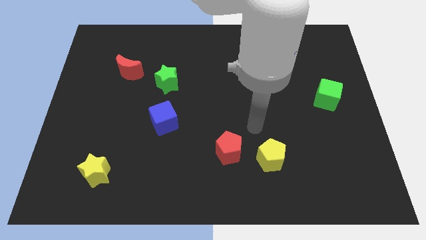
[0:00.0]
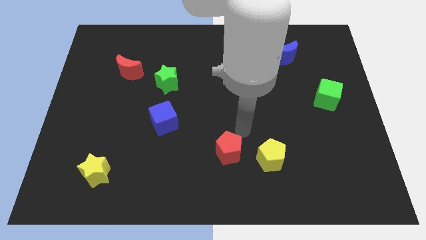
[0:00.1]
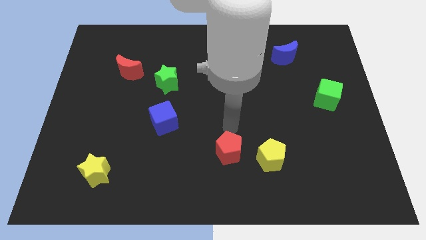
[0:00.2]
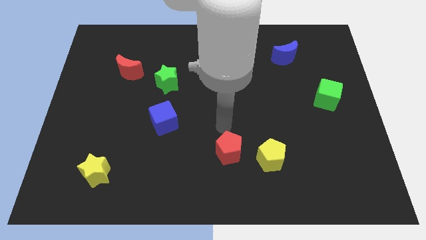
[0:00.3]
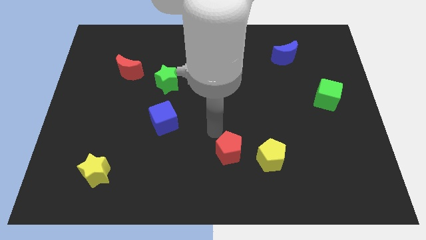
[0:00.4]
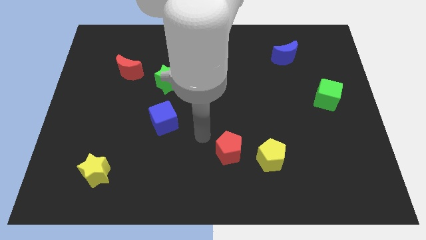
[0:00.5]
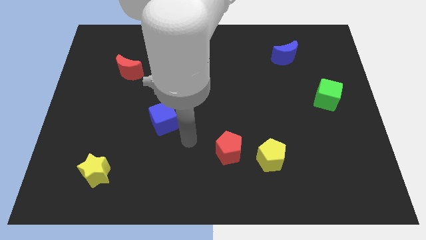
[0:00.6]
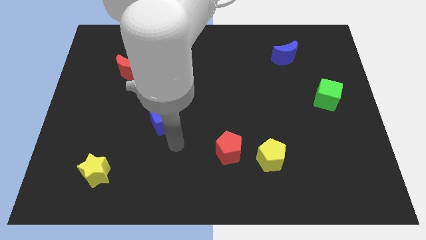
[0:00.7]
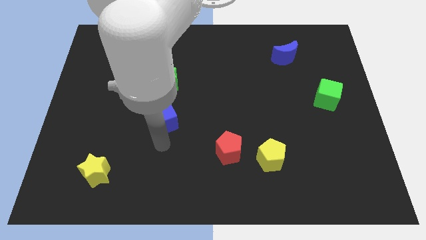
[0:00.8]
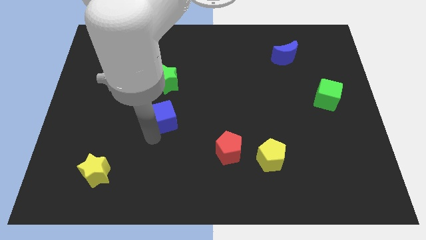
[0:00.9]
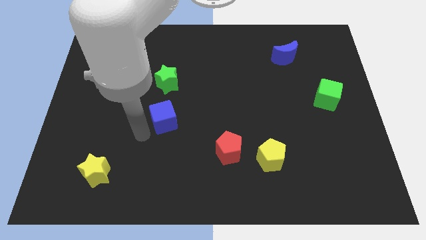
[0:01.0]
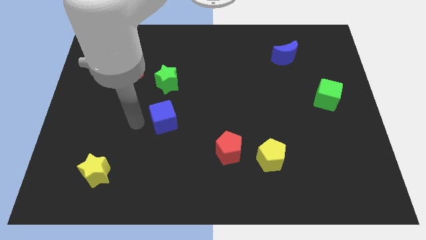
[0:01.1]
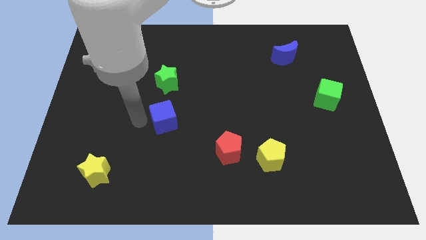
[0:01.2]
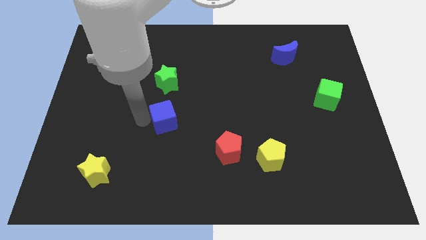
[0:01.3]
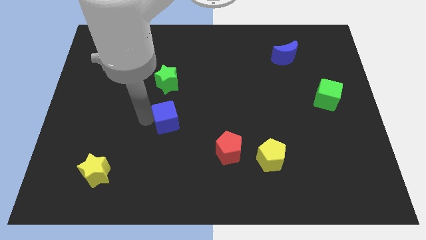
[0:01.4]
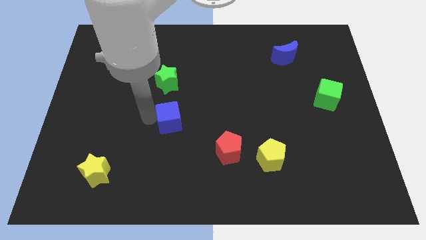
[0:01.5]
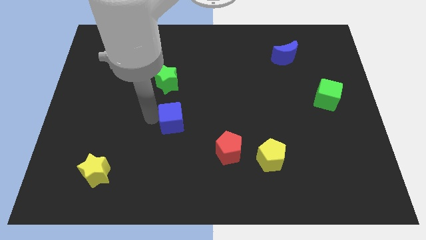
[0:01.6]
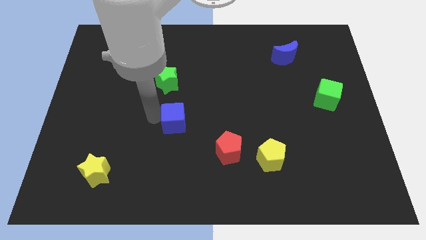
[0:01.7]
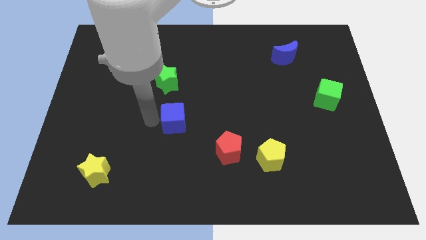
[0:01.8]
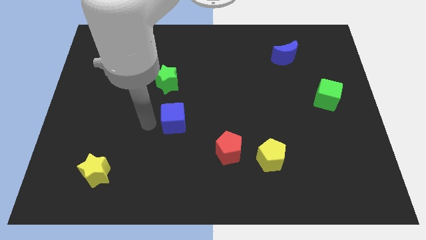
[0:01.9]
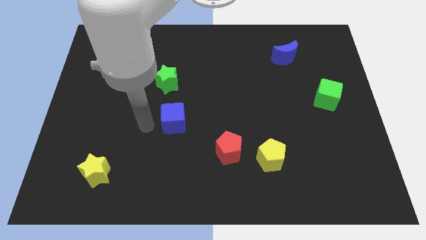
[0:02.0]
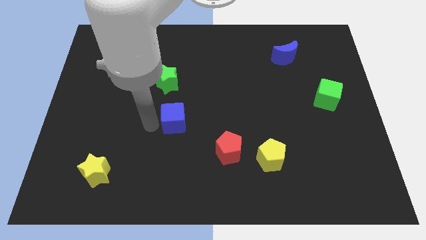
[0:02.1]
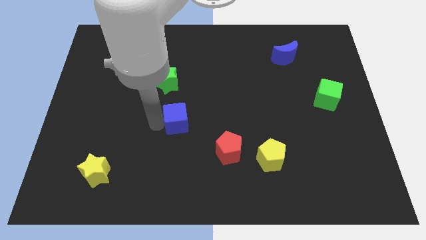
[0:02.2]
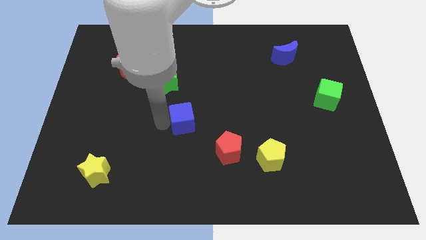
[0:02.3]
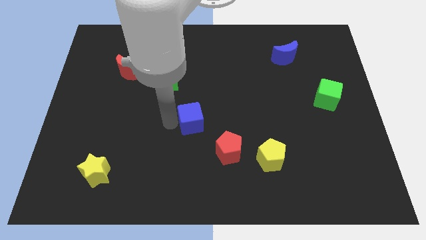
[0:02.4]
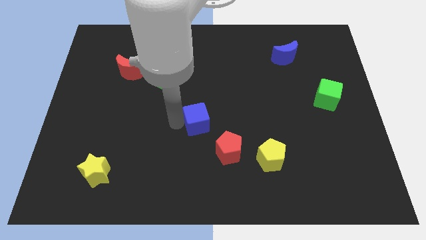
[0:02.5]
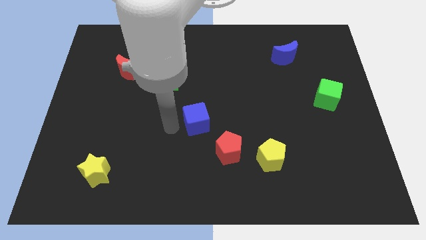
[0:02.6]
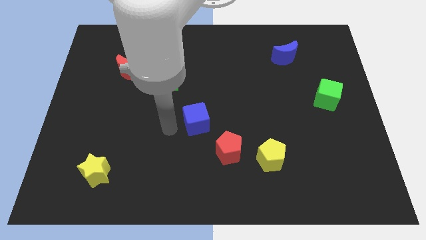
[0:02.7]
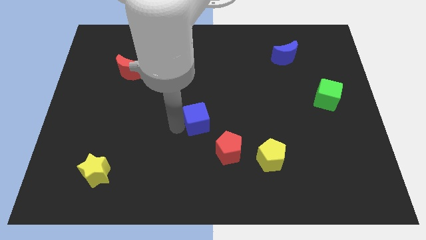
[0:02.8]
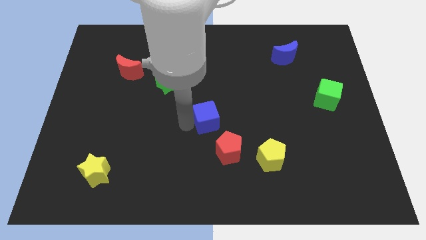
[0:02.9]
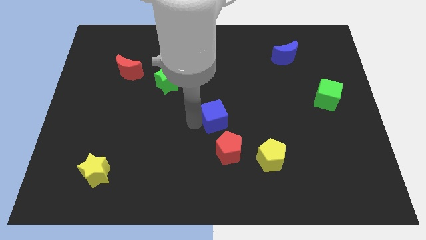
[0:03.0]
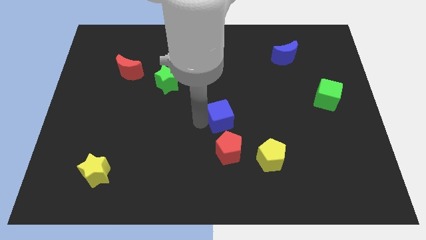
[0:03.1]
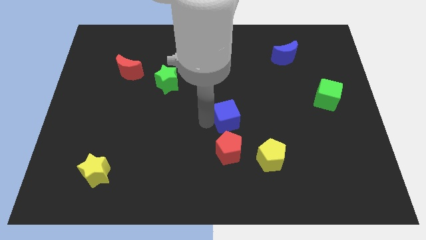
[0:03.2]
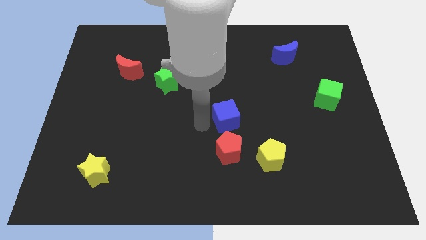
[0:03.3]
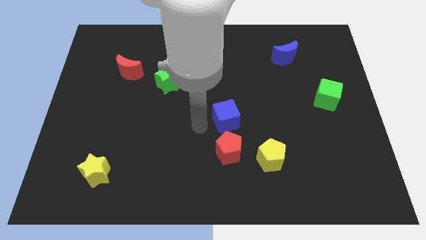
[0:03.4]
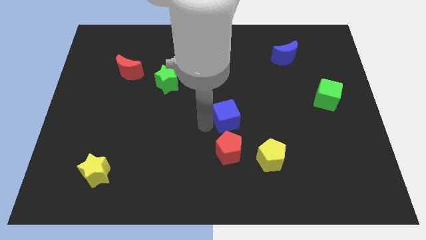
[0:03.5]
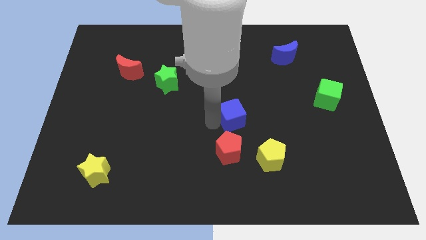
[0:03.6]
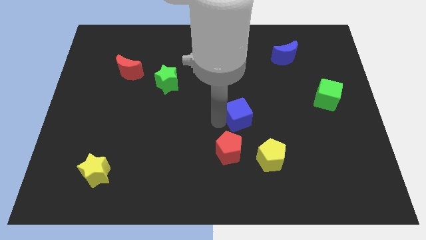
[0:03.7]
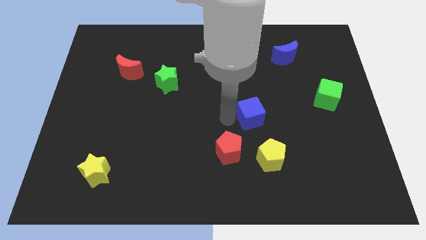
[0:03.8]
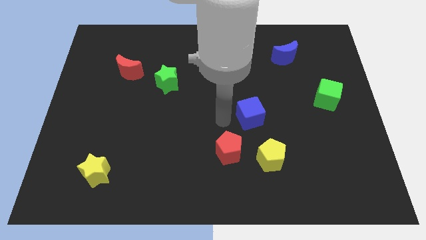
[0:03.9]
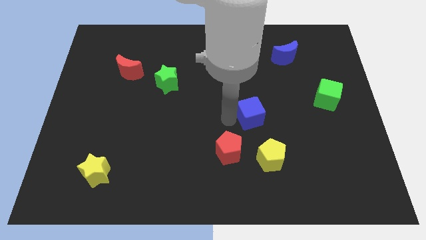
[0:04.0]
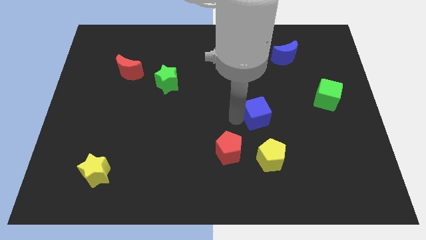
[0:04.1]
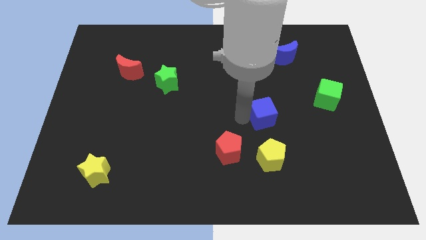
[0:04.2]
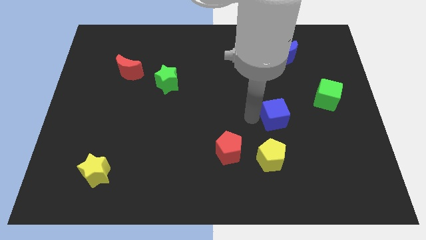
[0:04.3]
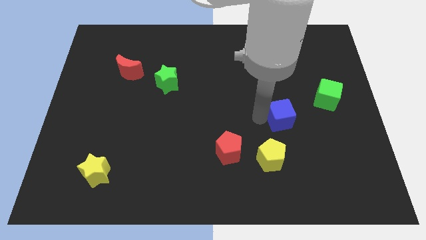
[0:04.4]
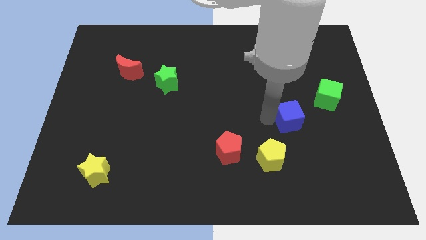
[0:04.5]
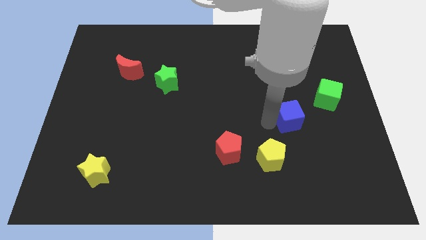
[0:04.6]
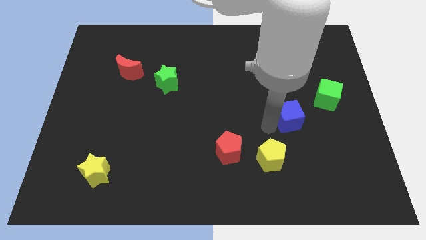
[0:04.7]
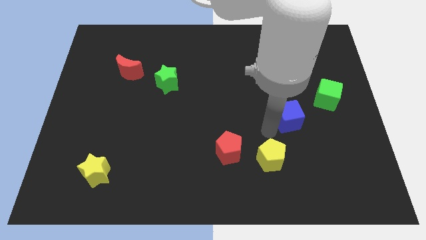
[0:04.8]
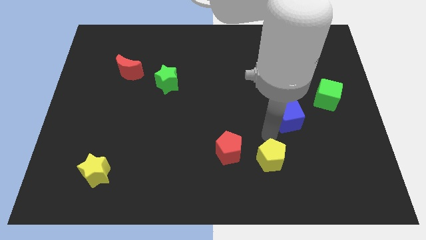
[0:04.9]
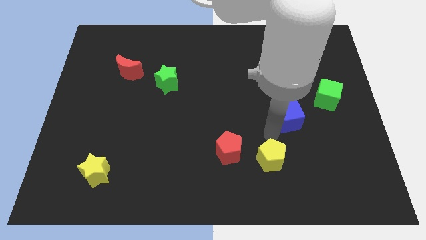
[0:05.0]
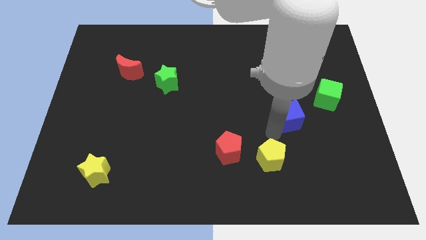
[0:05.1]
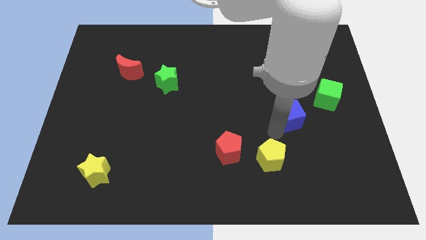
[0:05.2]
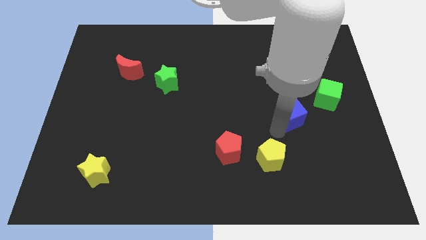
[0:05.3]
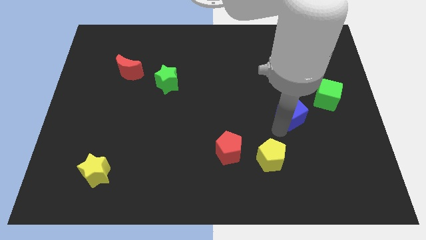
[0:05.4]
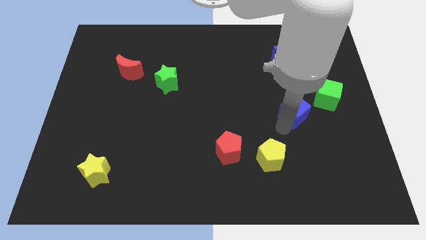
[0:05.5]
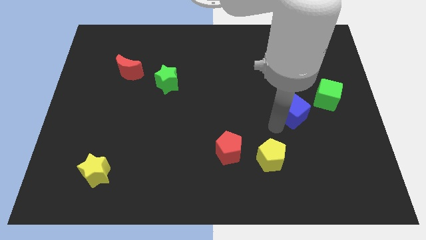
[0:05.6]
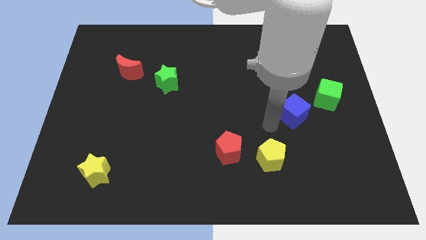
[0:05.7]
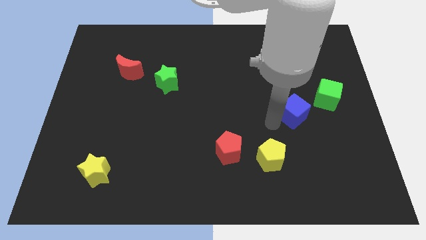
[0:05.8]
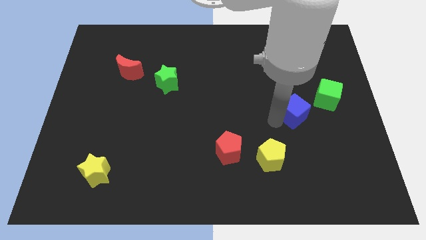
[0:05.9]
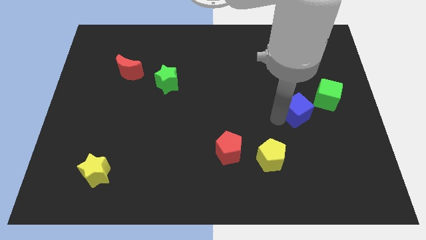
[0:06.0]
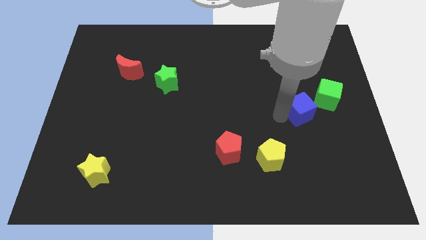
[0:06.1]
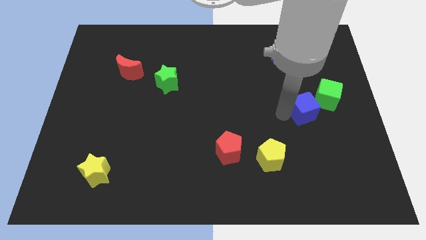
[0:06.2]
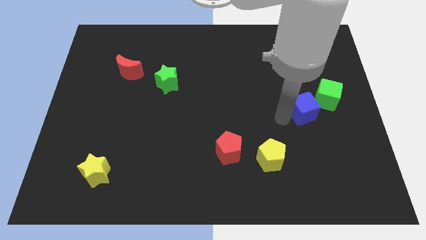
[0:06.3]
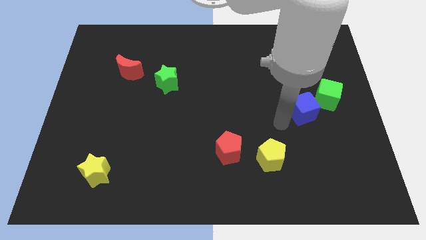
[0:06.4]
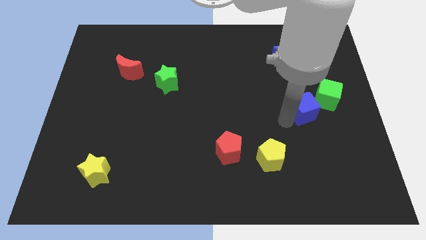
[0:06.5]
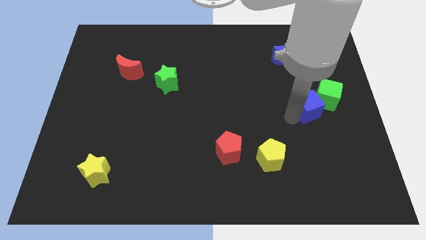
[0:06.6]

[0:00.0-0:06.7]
push the blue cube to the green cube
